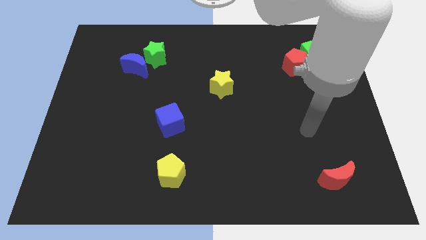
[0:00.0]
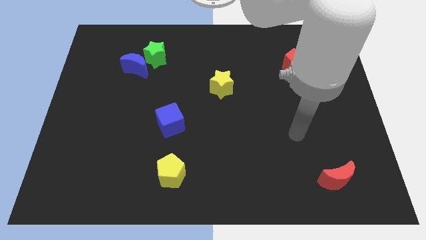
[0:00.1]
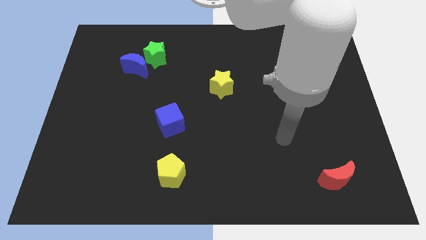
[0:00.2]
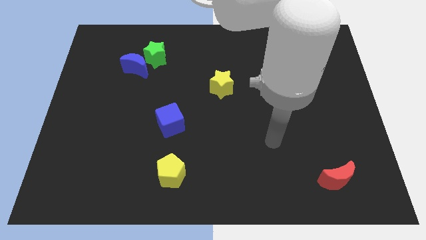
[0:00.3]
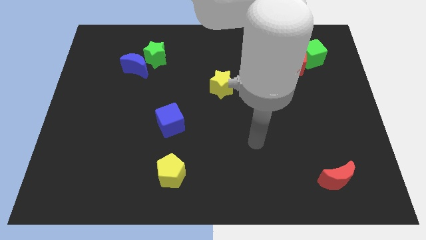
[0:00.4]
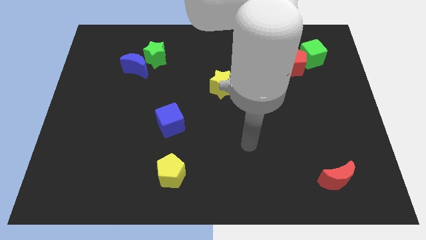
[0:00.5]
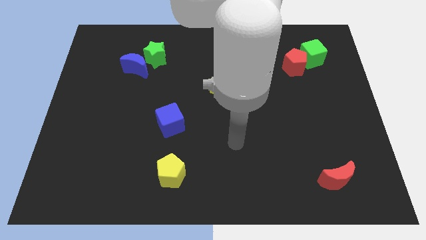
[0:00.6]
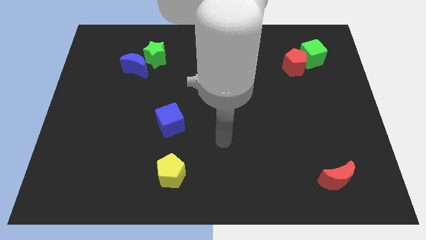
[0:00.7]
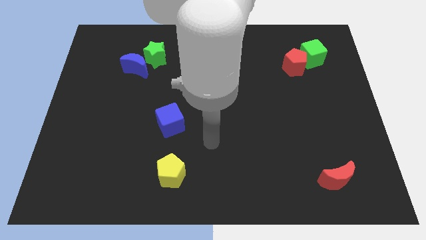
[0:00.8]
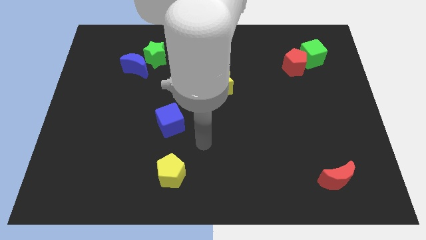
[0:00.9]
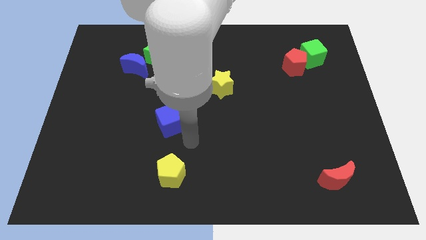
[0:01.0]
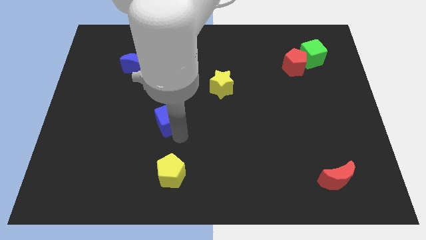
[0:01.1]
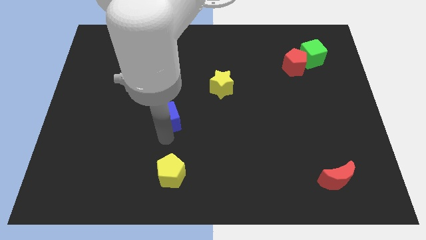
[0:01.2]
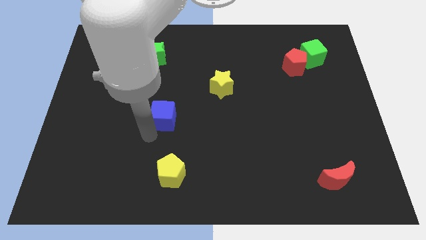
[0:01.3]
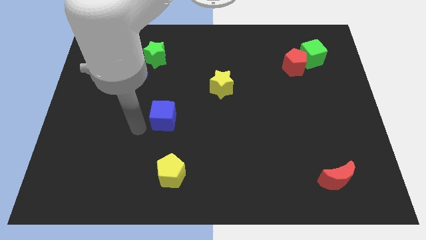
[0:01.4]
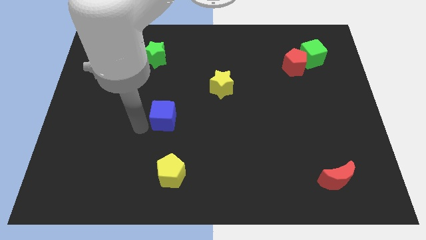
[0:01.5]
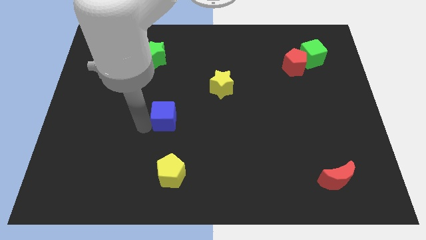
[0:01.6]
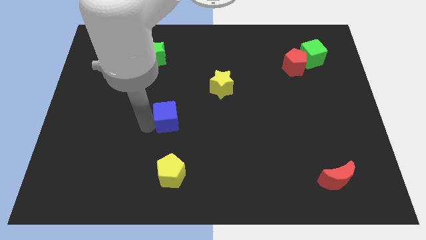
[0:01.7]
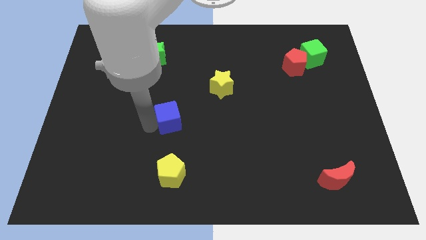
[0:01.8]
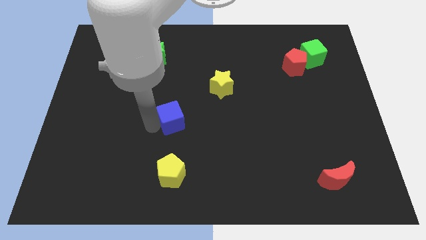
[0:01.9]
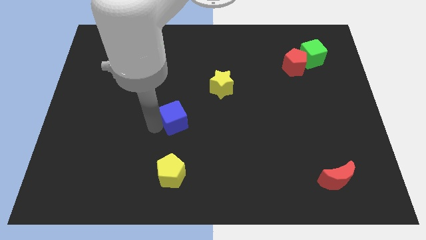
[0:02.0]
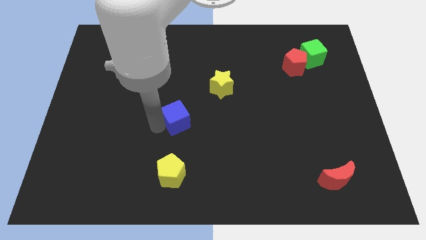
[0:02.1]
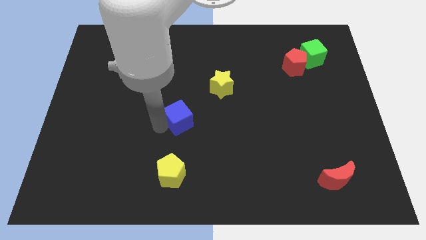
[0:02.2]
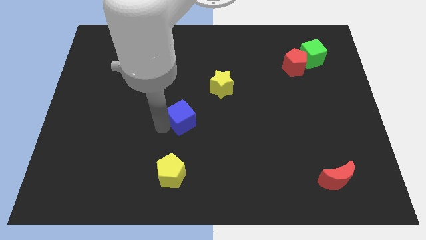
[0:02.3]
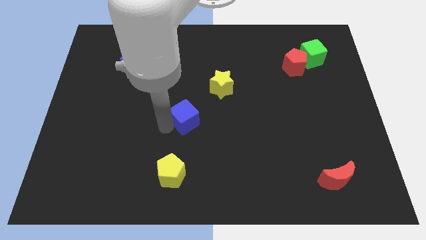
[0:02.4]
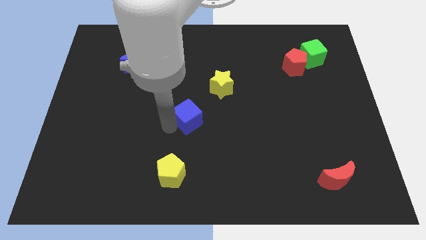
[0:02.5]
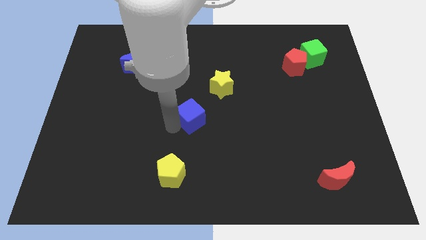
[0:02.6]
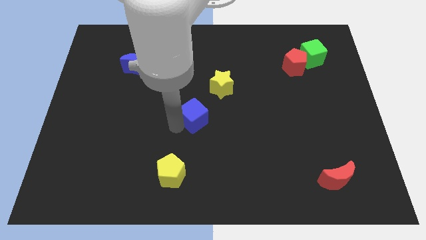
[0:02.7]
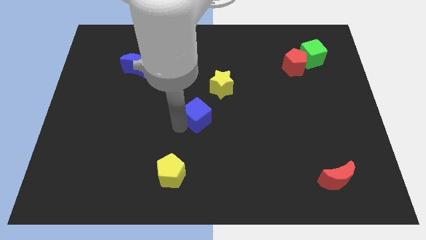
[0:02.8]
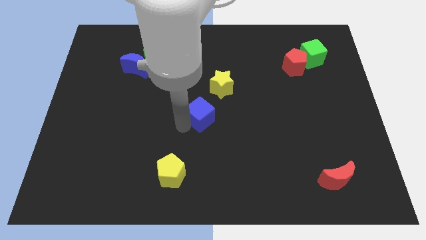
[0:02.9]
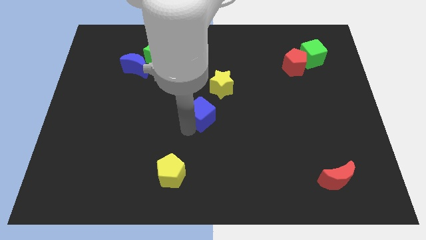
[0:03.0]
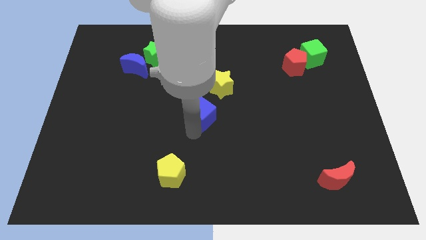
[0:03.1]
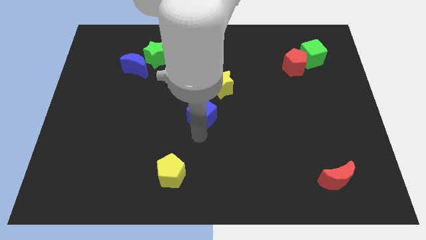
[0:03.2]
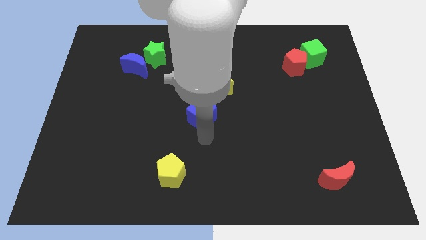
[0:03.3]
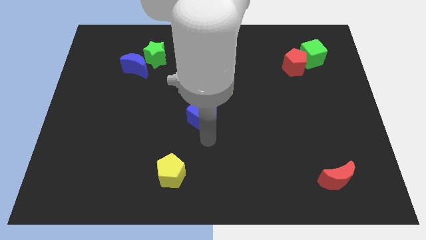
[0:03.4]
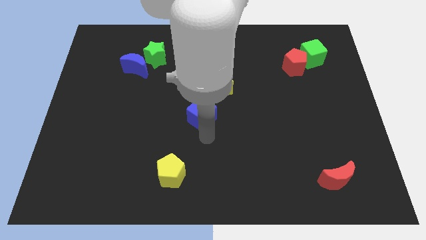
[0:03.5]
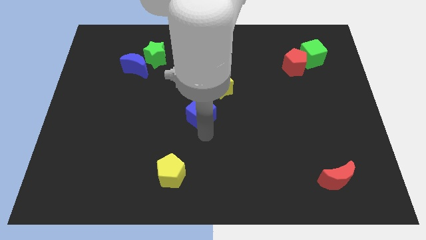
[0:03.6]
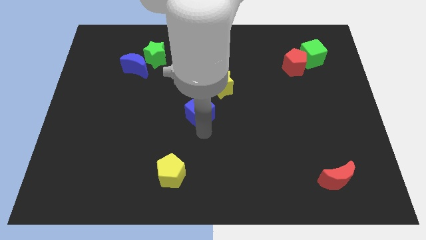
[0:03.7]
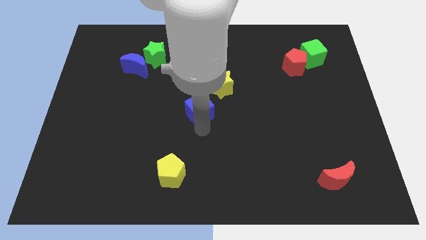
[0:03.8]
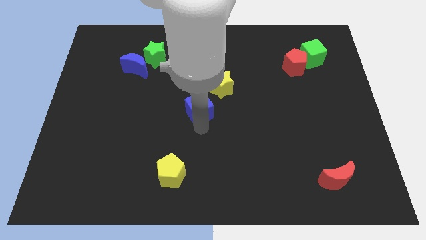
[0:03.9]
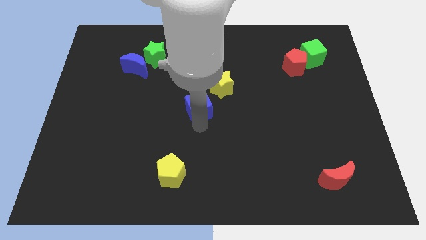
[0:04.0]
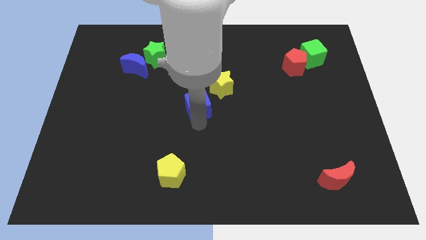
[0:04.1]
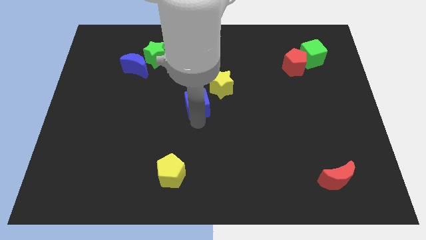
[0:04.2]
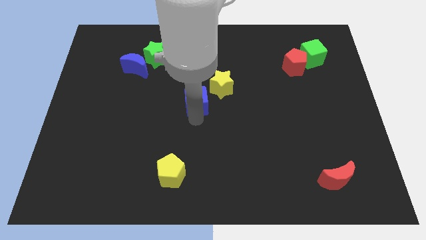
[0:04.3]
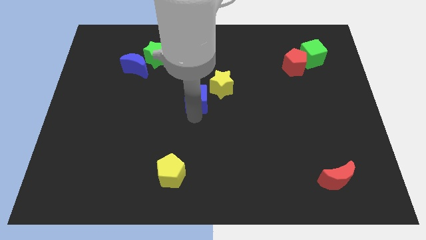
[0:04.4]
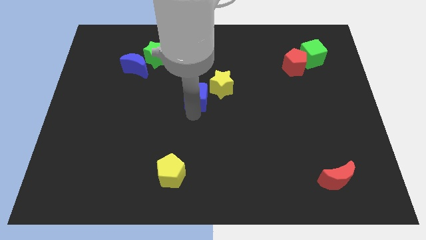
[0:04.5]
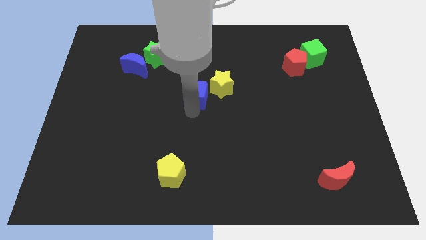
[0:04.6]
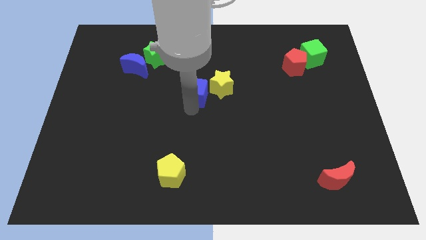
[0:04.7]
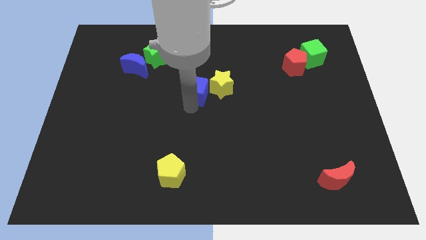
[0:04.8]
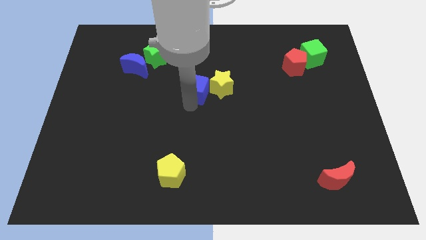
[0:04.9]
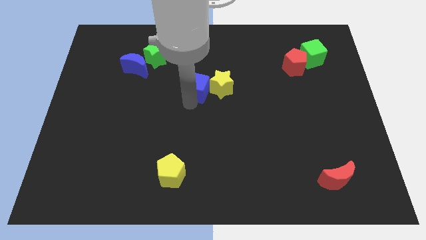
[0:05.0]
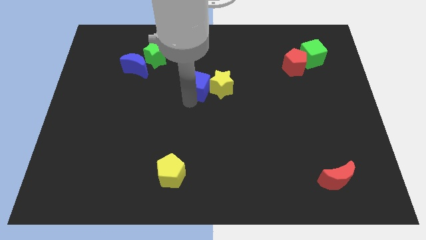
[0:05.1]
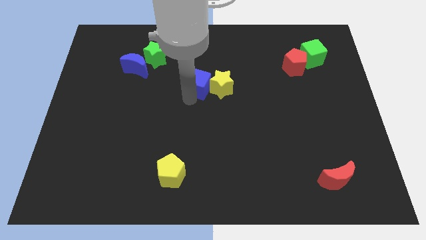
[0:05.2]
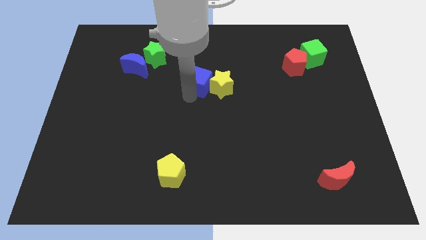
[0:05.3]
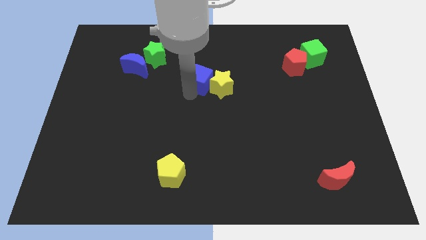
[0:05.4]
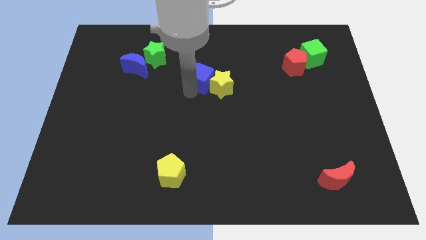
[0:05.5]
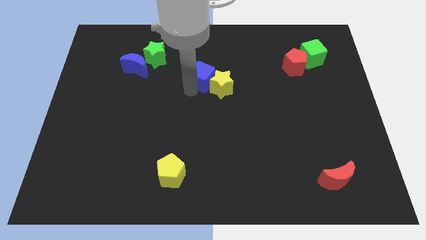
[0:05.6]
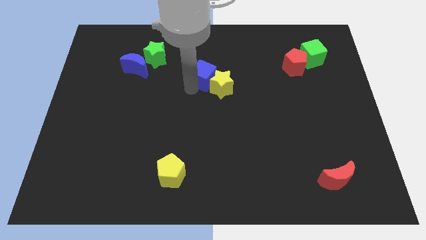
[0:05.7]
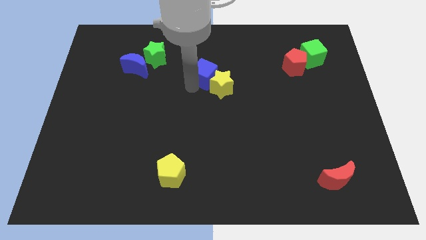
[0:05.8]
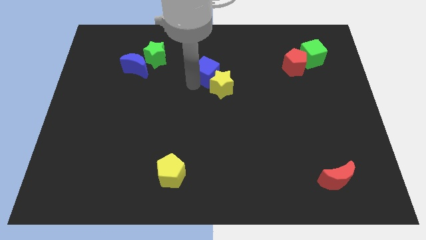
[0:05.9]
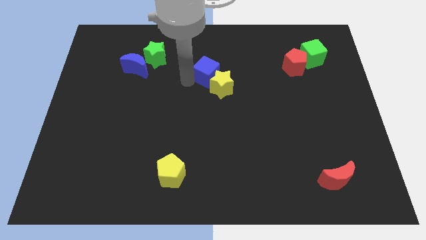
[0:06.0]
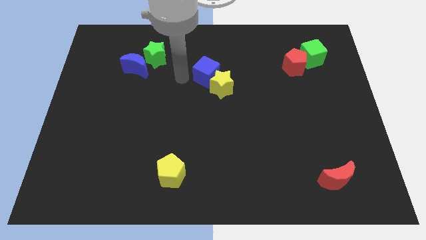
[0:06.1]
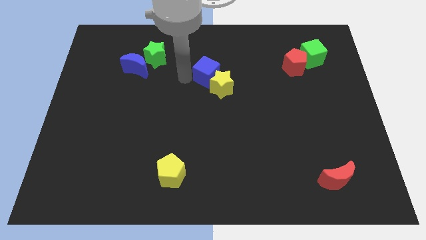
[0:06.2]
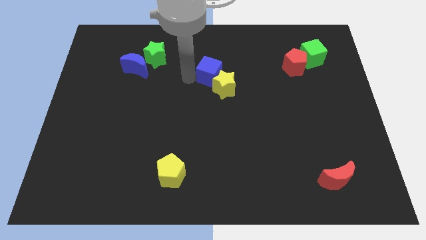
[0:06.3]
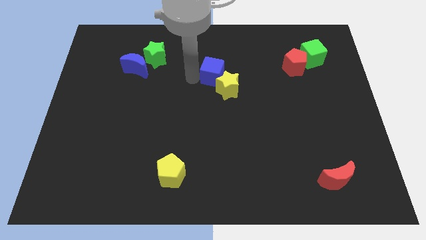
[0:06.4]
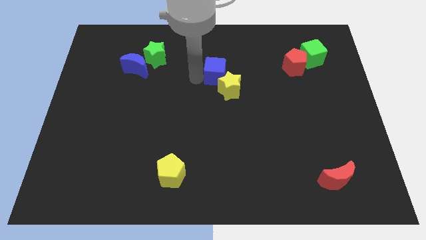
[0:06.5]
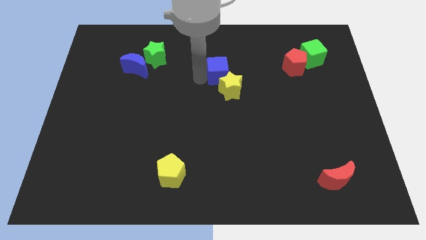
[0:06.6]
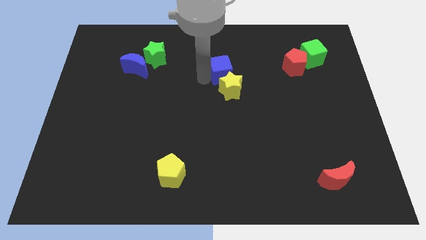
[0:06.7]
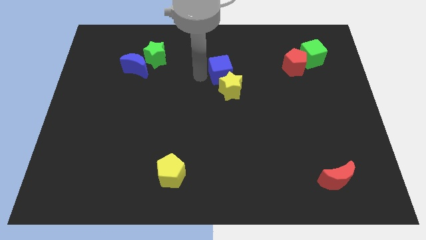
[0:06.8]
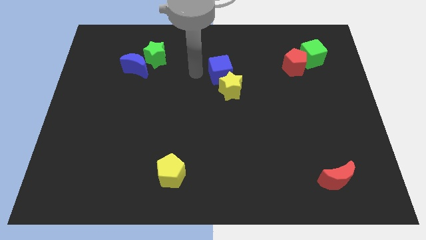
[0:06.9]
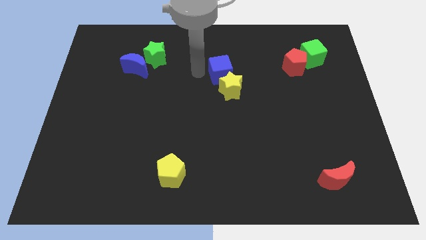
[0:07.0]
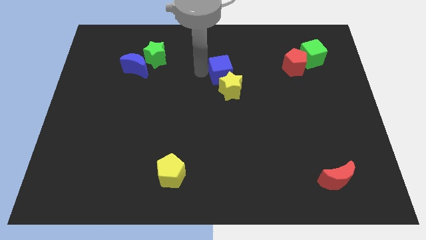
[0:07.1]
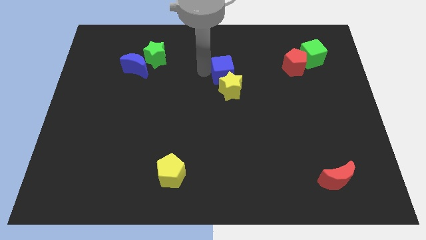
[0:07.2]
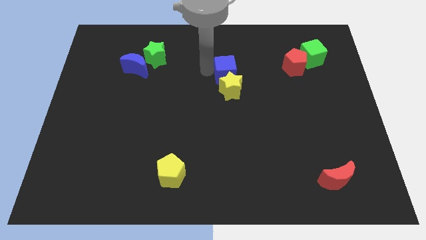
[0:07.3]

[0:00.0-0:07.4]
slide the blue cube to the top right side of the yellow star
